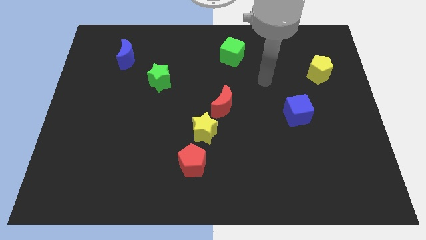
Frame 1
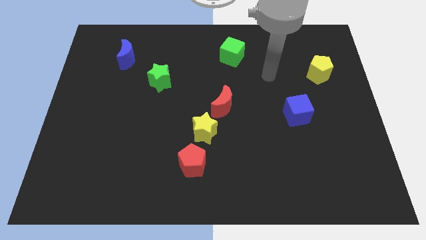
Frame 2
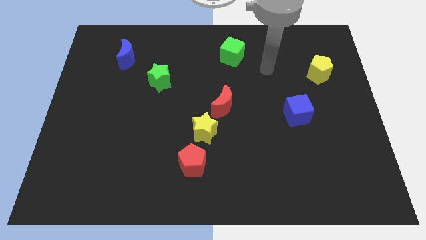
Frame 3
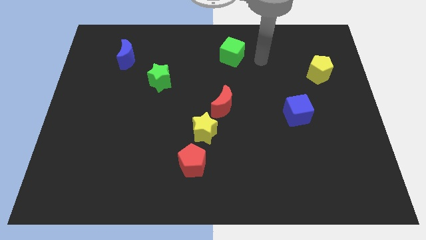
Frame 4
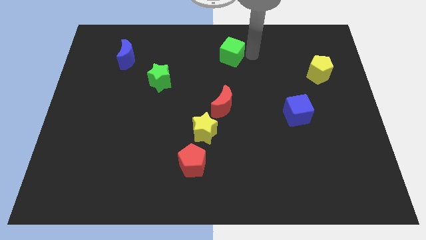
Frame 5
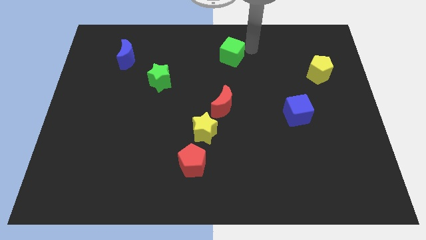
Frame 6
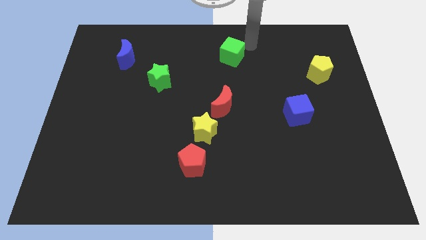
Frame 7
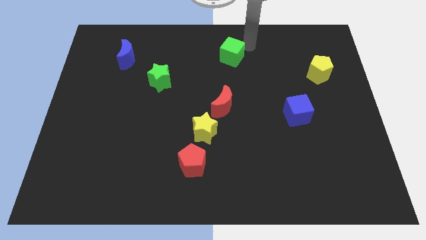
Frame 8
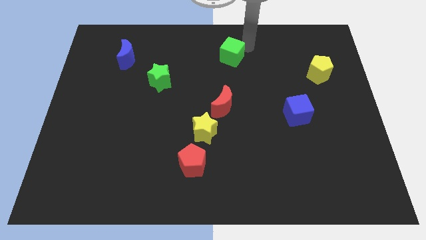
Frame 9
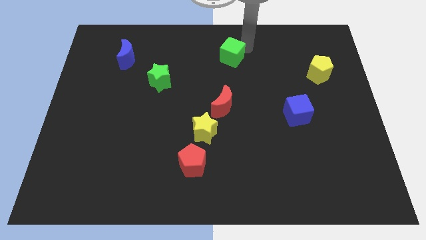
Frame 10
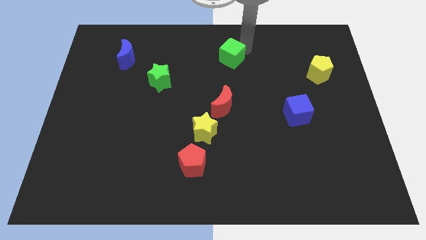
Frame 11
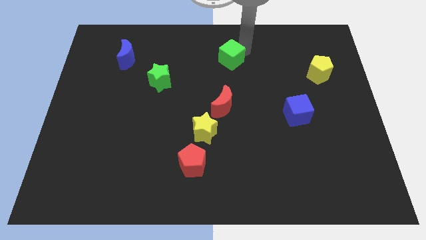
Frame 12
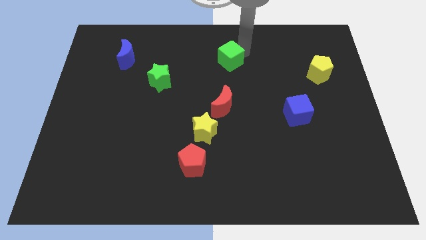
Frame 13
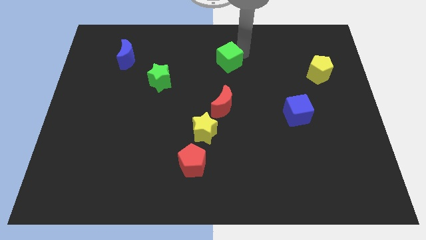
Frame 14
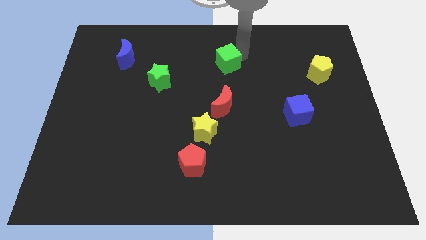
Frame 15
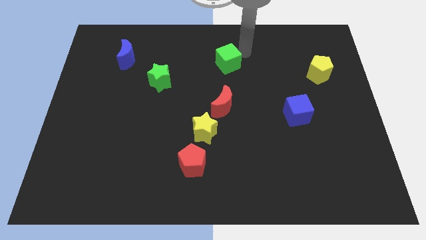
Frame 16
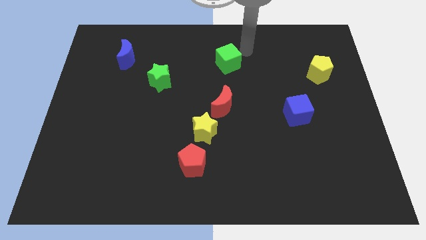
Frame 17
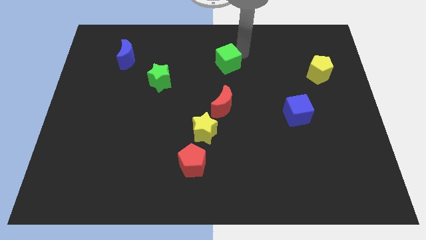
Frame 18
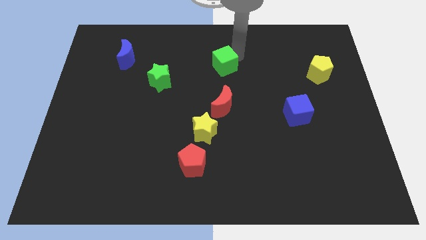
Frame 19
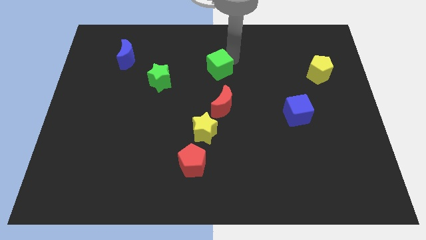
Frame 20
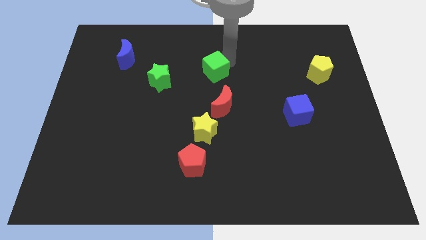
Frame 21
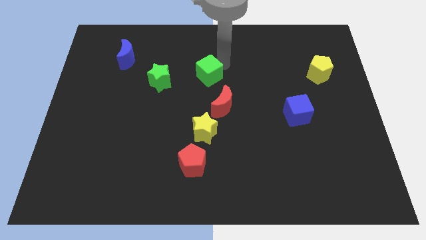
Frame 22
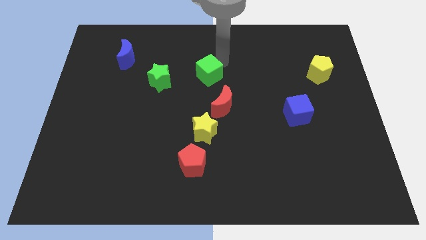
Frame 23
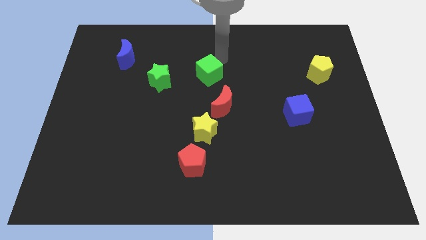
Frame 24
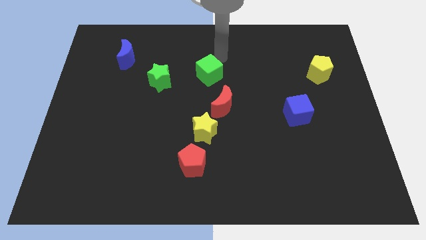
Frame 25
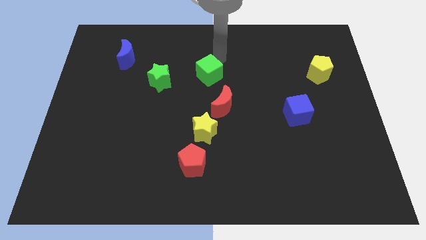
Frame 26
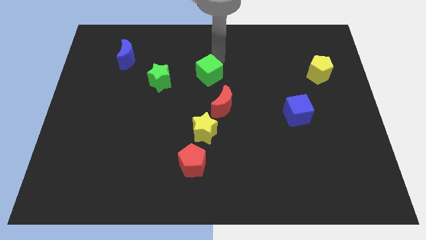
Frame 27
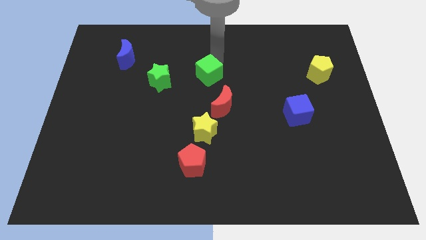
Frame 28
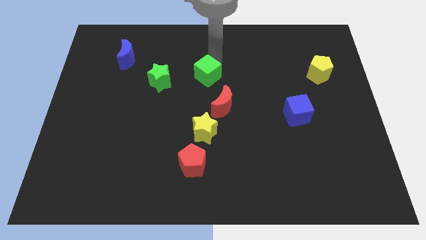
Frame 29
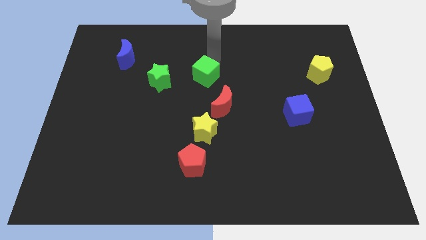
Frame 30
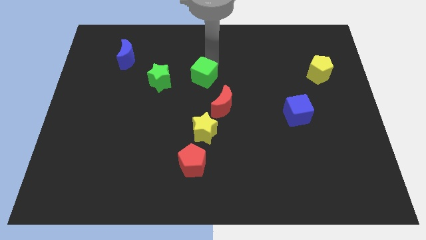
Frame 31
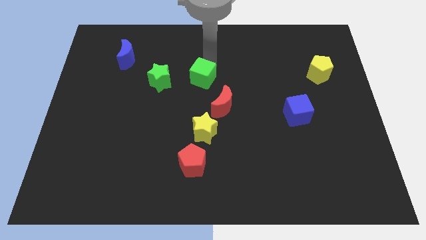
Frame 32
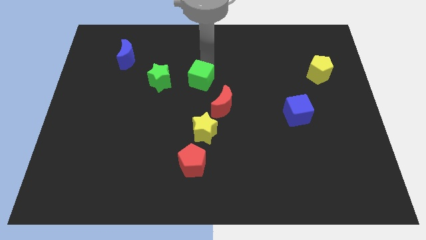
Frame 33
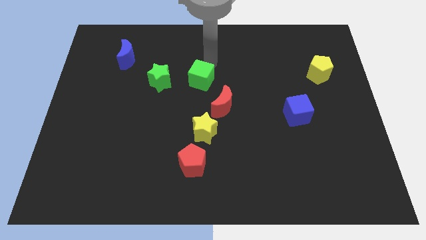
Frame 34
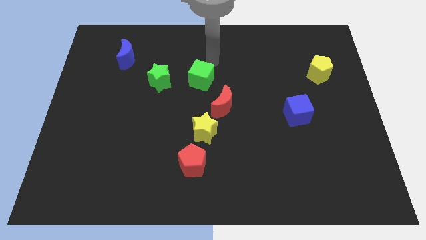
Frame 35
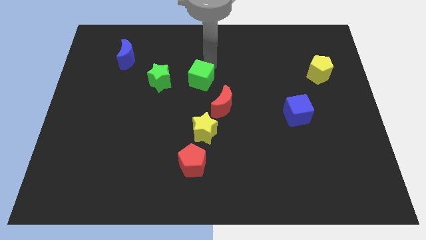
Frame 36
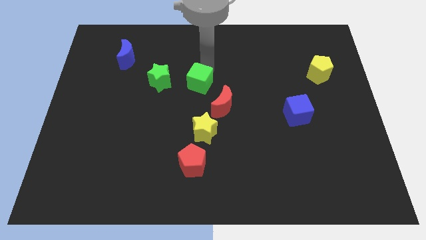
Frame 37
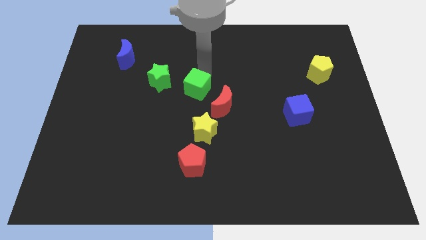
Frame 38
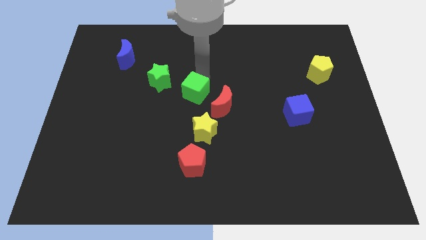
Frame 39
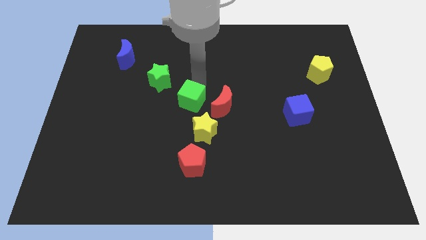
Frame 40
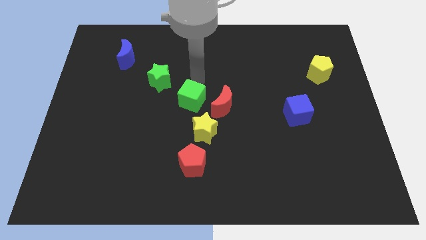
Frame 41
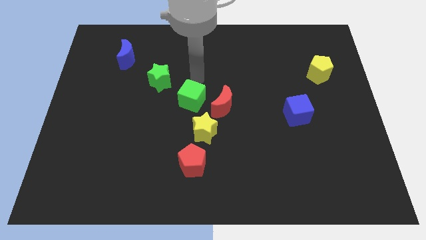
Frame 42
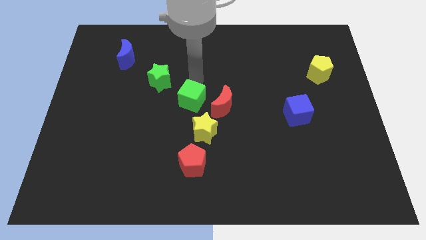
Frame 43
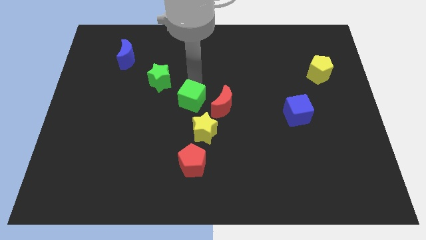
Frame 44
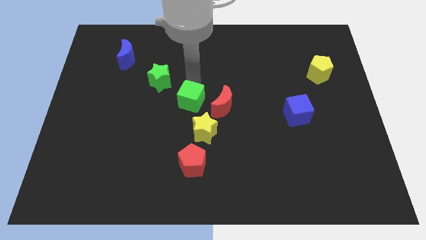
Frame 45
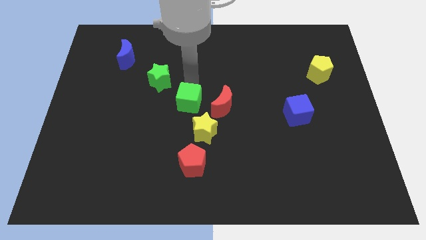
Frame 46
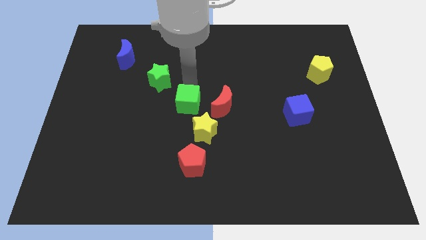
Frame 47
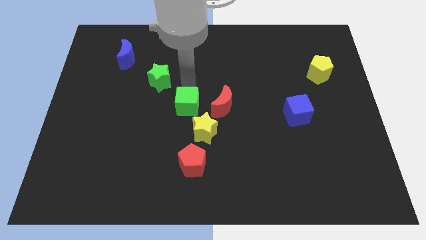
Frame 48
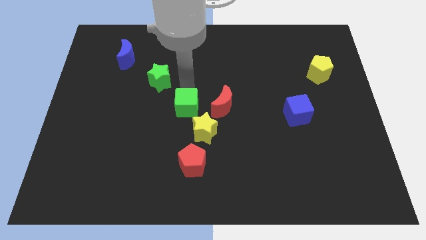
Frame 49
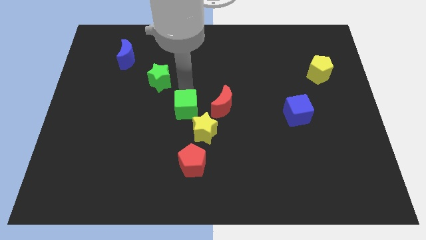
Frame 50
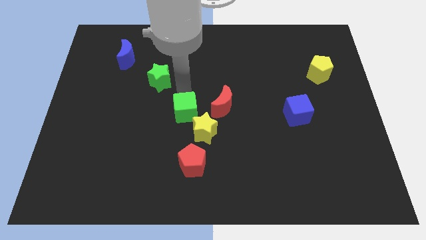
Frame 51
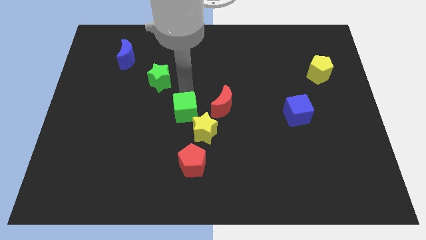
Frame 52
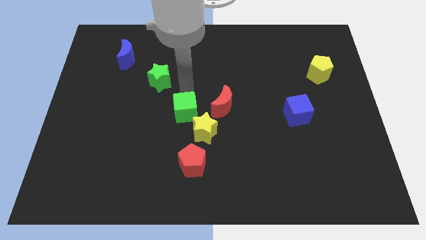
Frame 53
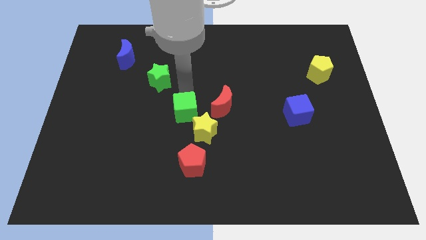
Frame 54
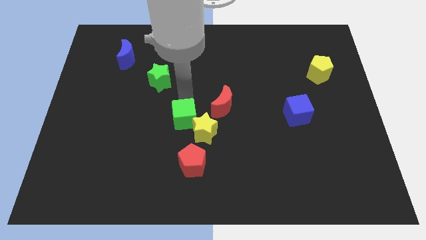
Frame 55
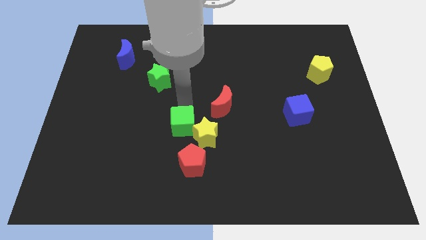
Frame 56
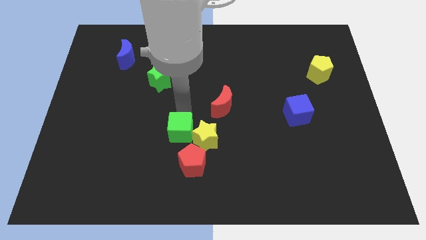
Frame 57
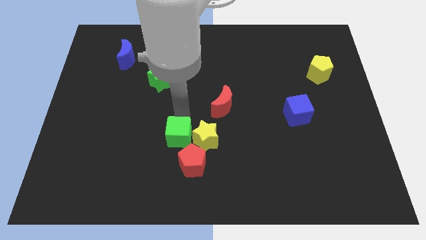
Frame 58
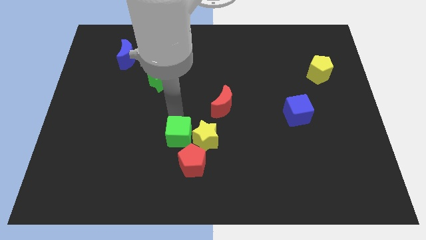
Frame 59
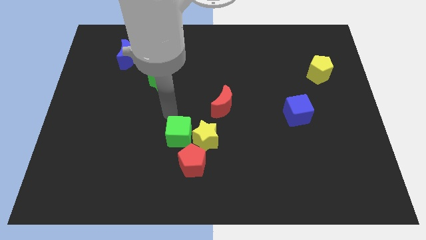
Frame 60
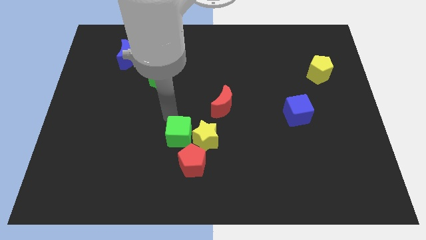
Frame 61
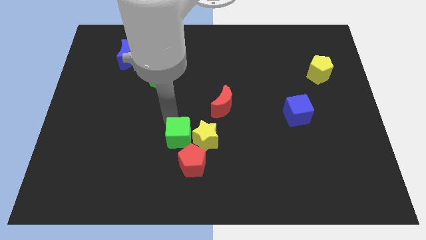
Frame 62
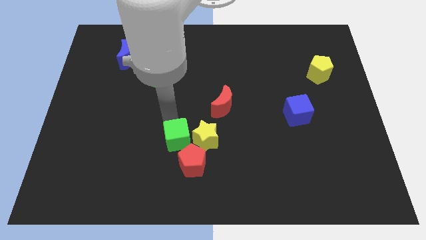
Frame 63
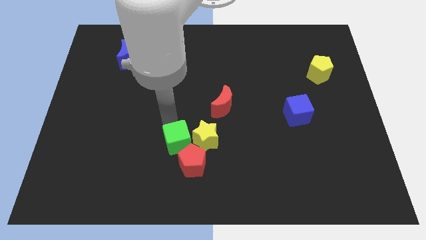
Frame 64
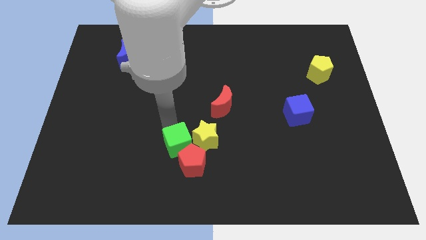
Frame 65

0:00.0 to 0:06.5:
slide the green cube close to the red pentagon

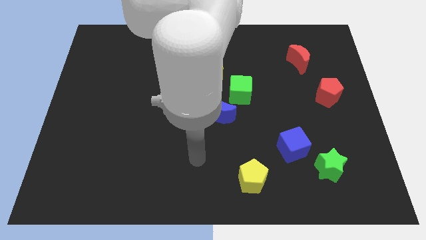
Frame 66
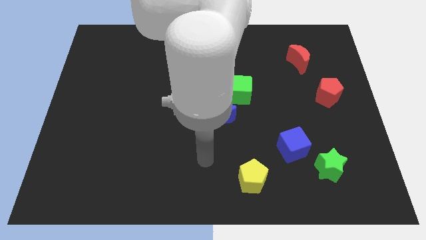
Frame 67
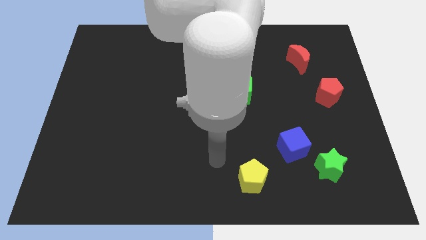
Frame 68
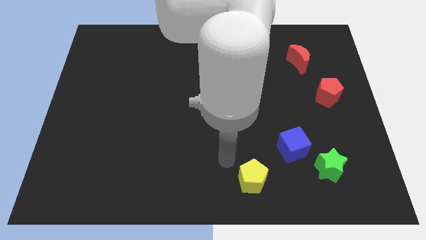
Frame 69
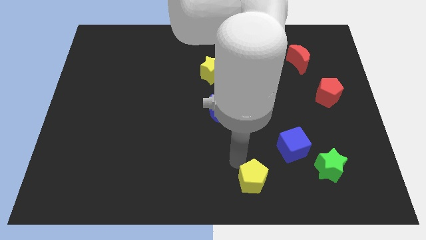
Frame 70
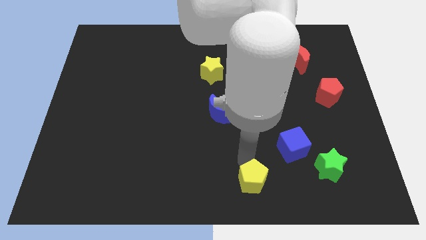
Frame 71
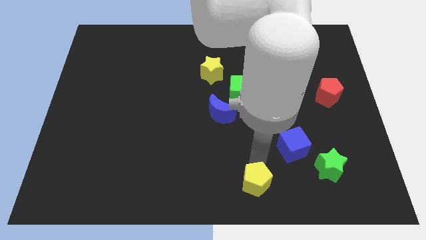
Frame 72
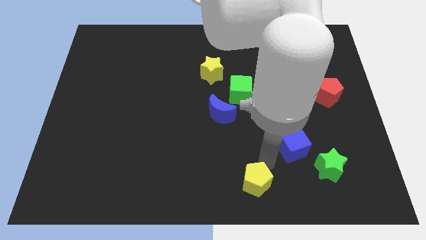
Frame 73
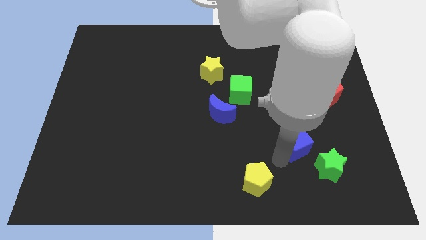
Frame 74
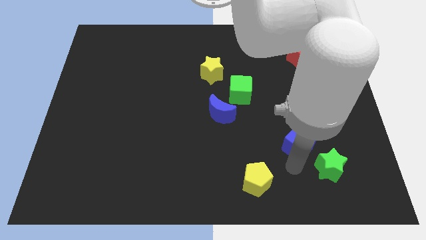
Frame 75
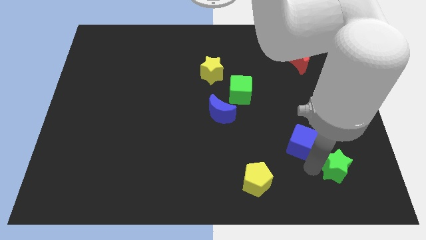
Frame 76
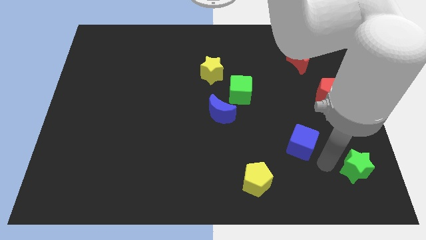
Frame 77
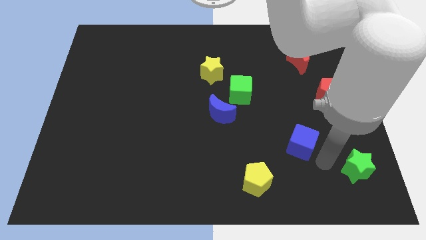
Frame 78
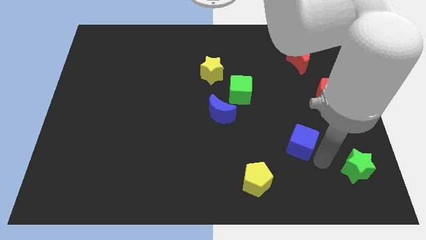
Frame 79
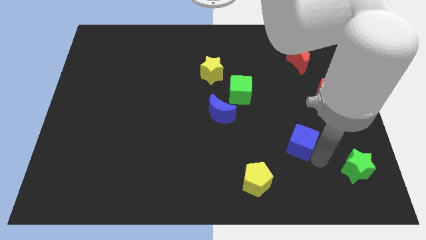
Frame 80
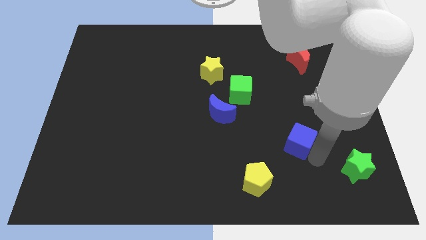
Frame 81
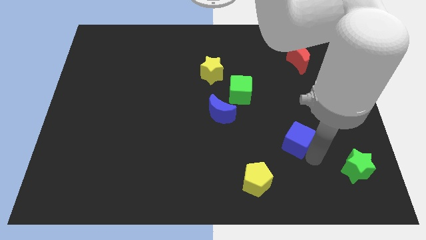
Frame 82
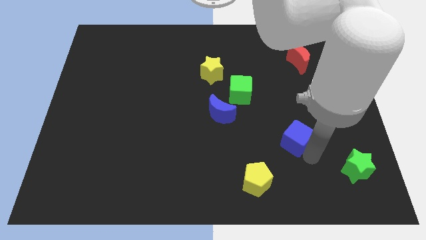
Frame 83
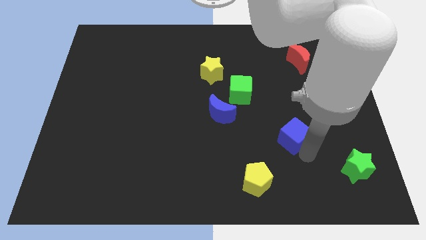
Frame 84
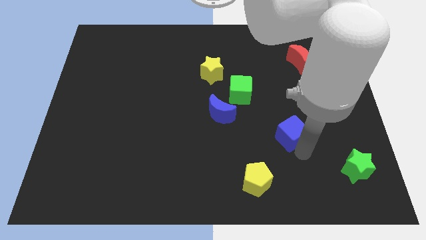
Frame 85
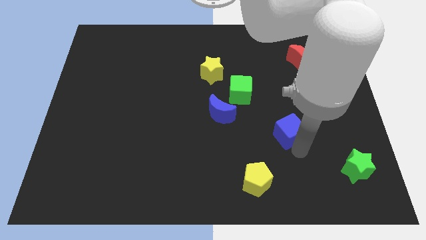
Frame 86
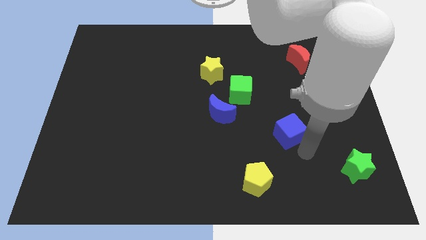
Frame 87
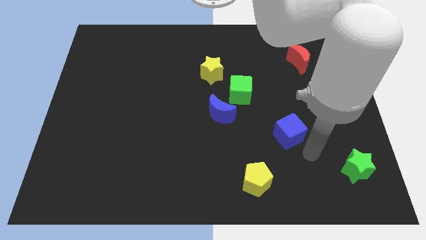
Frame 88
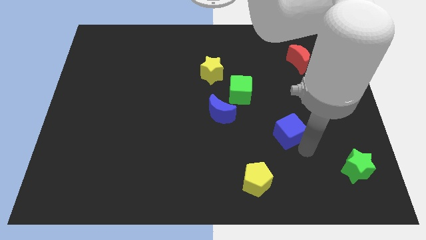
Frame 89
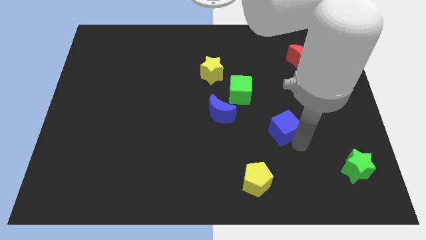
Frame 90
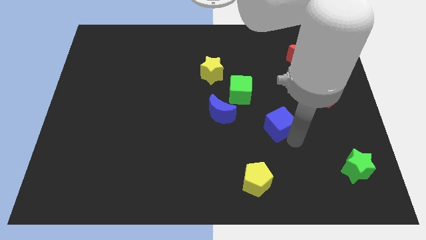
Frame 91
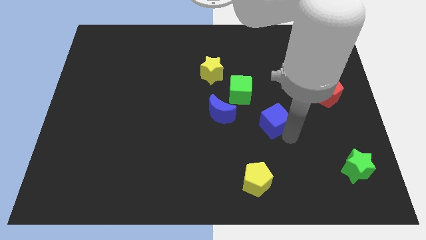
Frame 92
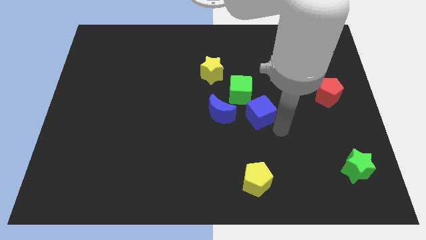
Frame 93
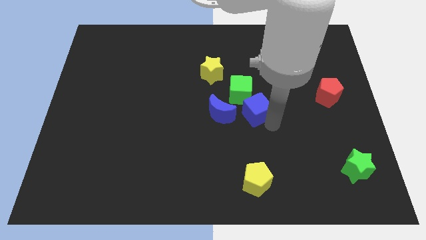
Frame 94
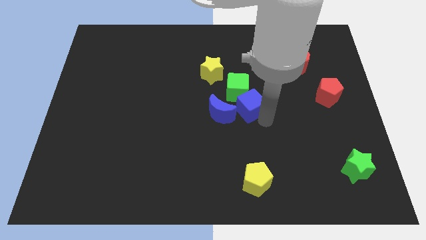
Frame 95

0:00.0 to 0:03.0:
move the blue cube next to the green cube
